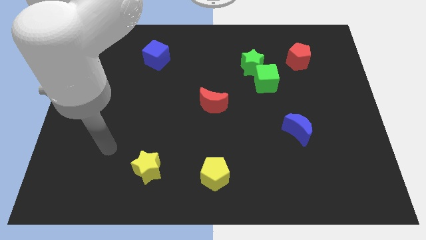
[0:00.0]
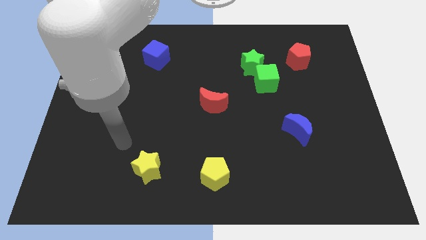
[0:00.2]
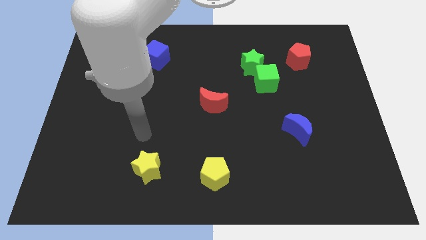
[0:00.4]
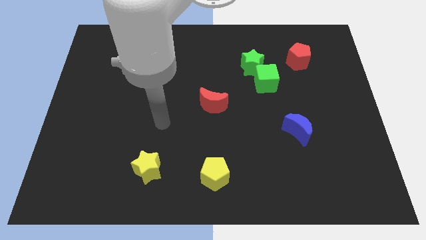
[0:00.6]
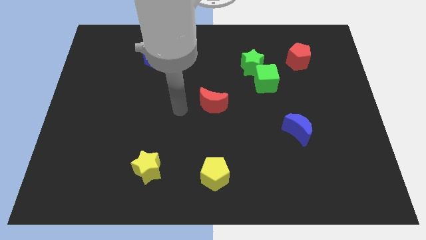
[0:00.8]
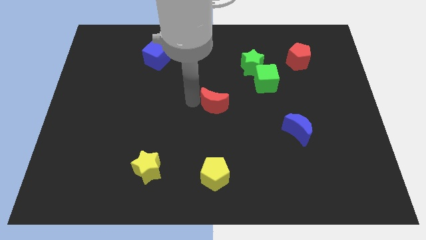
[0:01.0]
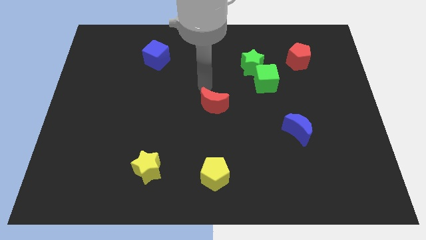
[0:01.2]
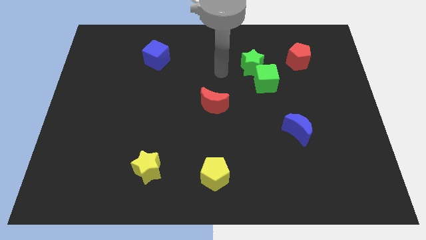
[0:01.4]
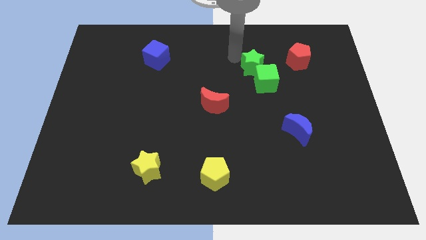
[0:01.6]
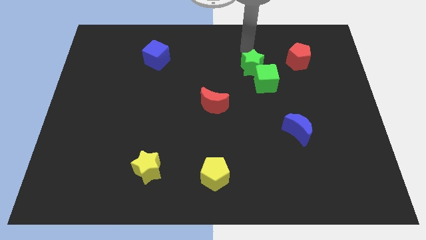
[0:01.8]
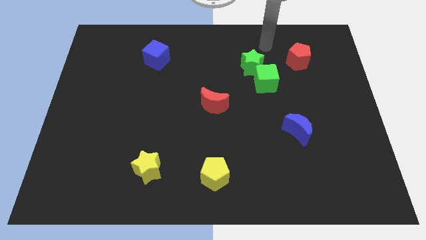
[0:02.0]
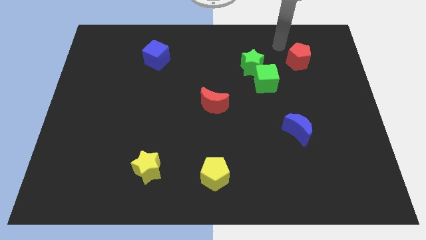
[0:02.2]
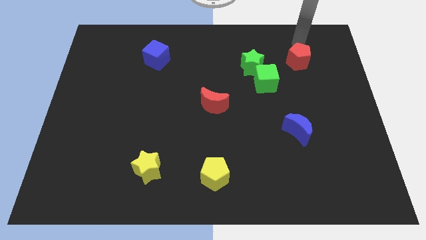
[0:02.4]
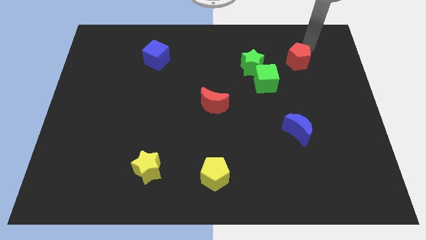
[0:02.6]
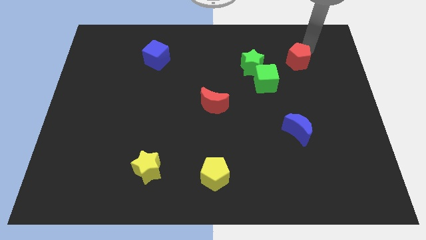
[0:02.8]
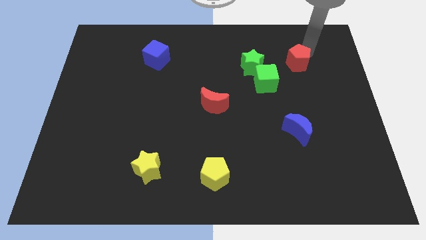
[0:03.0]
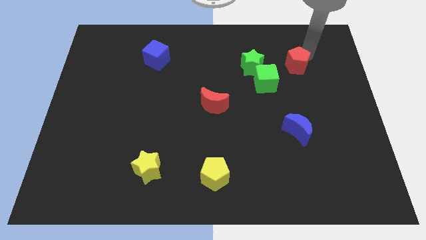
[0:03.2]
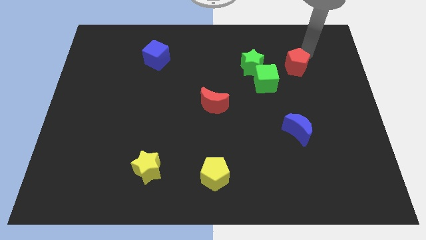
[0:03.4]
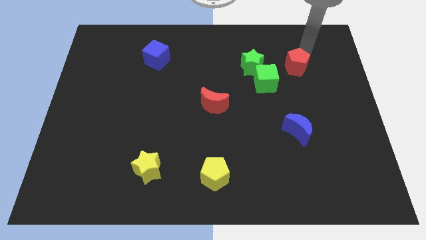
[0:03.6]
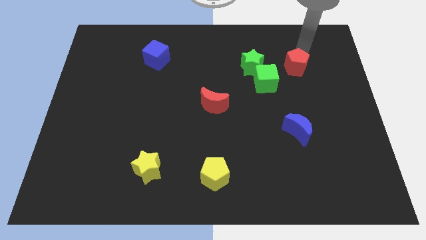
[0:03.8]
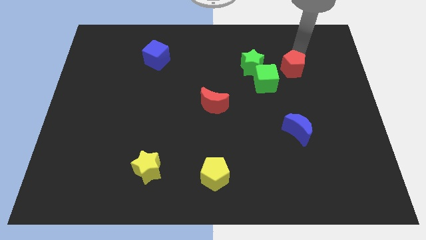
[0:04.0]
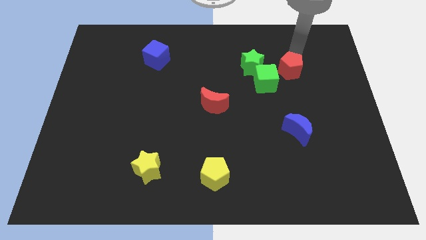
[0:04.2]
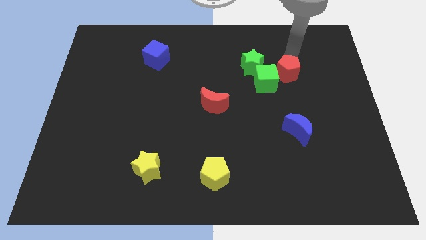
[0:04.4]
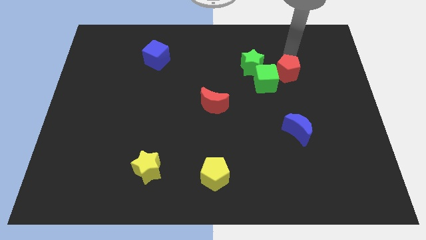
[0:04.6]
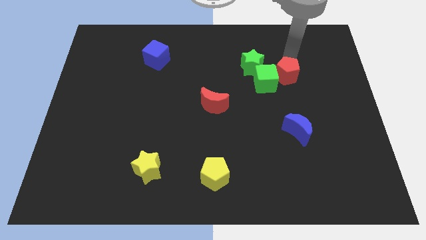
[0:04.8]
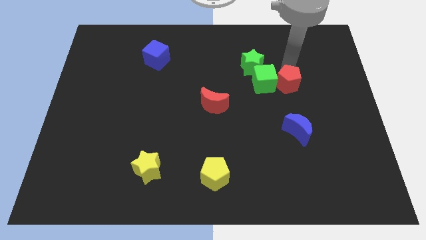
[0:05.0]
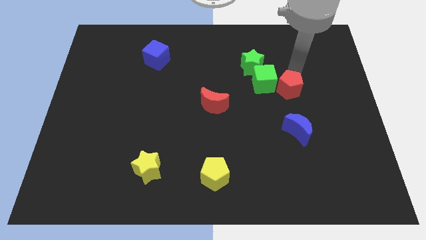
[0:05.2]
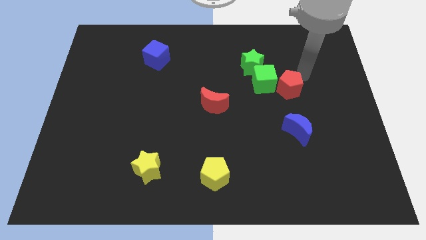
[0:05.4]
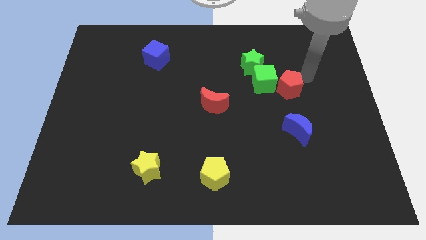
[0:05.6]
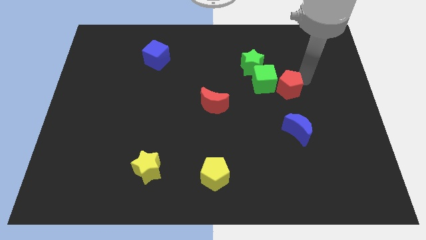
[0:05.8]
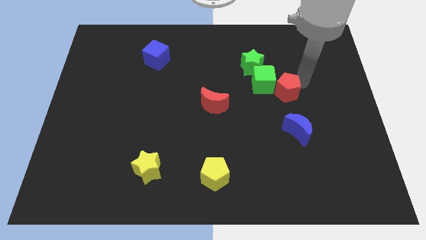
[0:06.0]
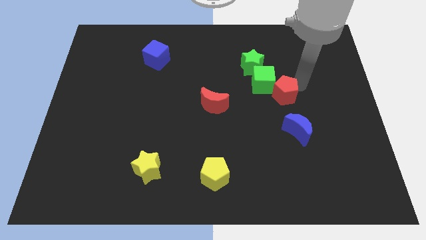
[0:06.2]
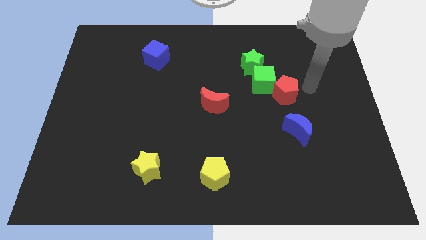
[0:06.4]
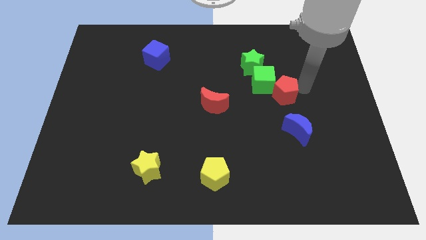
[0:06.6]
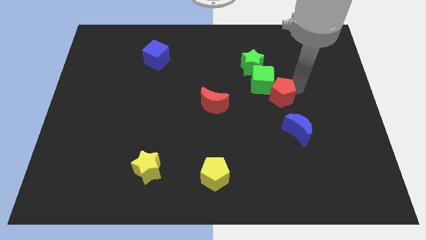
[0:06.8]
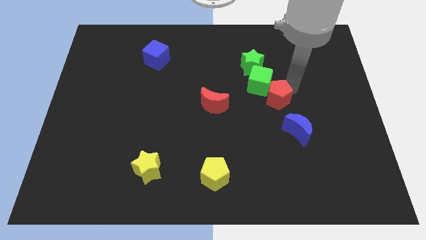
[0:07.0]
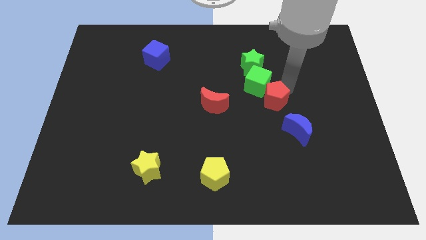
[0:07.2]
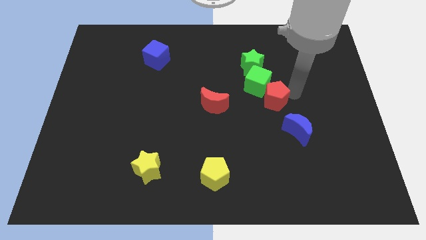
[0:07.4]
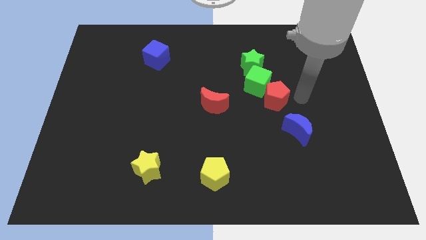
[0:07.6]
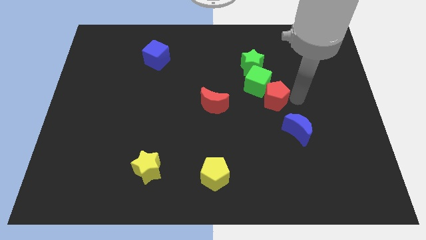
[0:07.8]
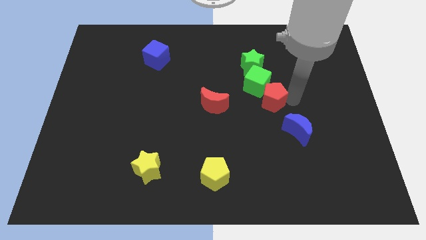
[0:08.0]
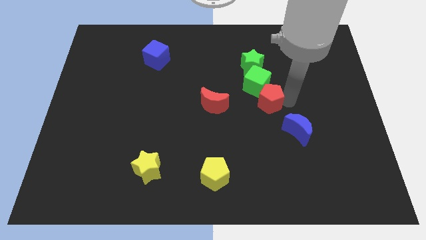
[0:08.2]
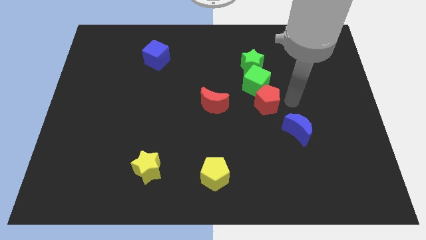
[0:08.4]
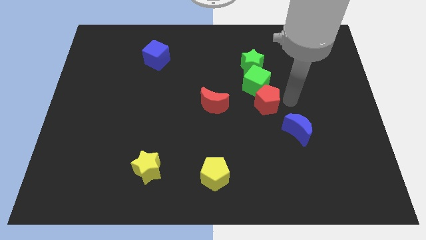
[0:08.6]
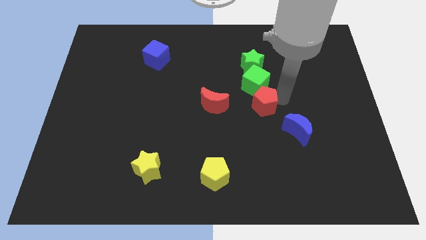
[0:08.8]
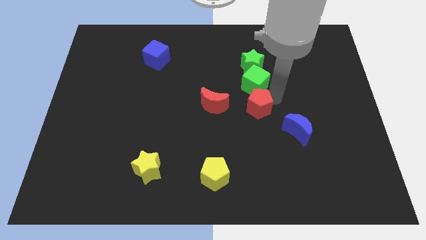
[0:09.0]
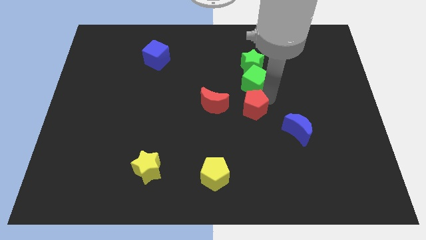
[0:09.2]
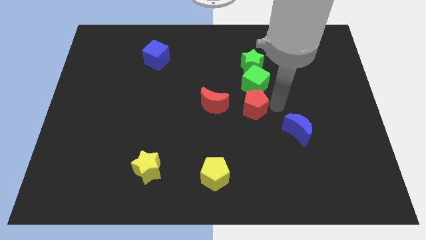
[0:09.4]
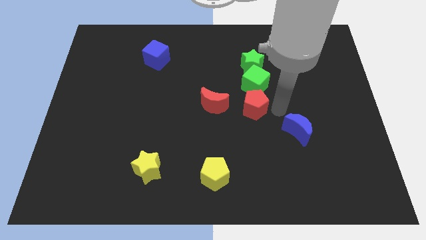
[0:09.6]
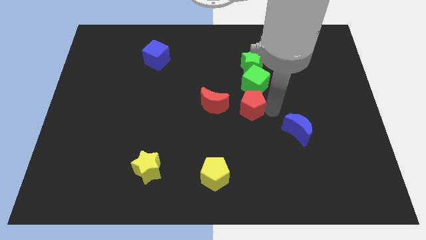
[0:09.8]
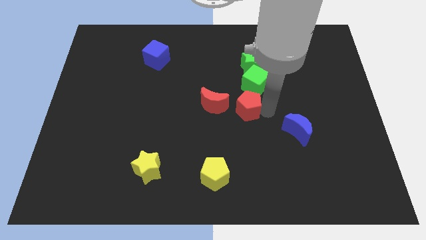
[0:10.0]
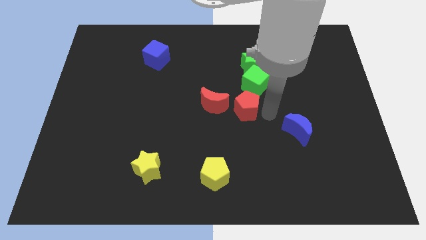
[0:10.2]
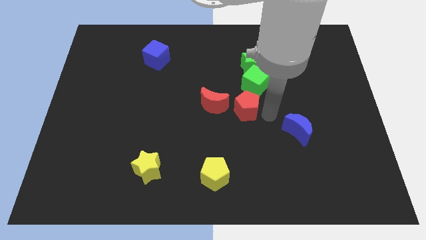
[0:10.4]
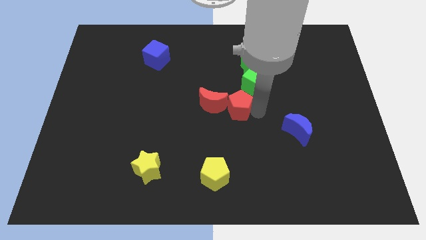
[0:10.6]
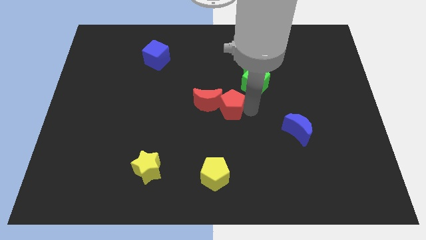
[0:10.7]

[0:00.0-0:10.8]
push the red pentagon towards the red moon

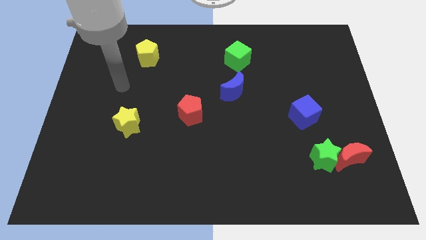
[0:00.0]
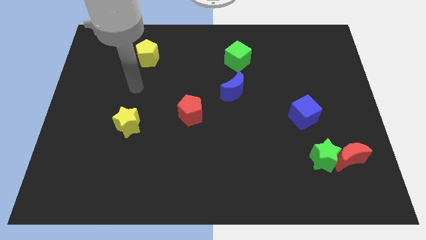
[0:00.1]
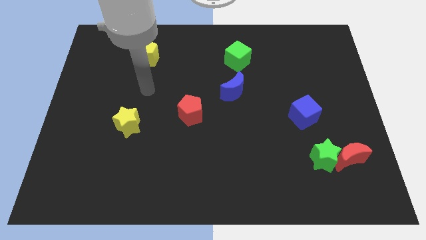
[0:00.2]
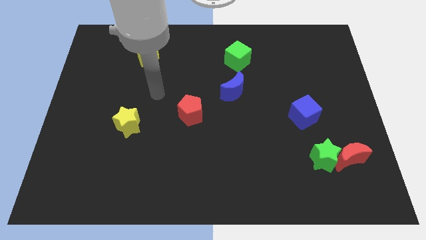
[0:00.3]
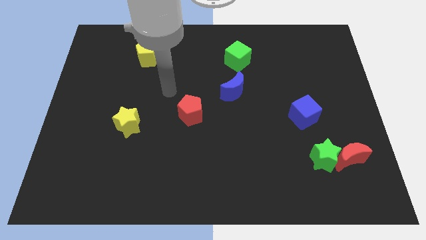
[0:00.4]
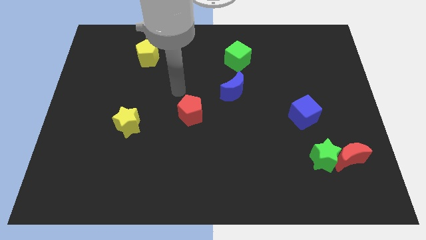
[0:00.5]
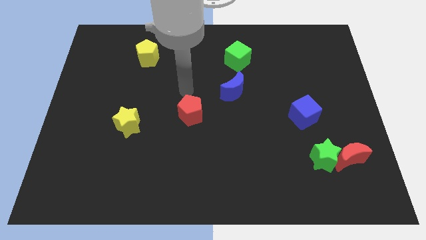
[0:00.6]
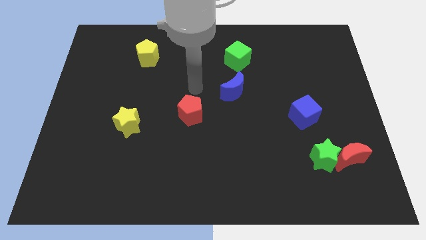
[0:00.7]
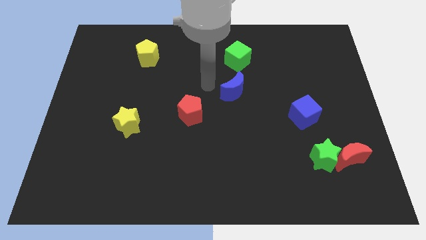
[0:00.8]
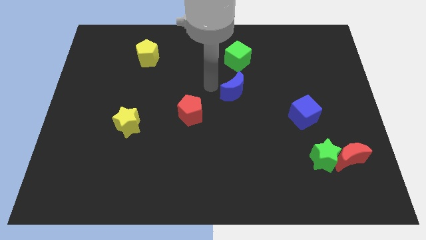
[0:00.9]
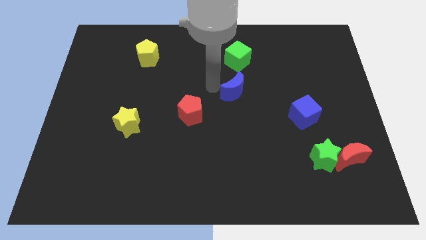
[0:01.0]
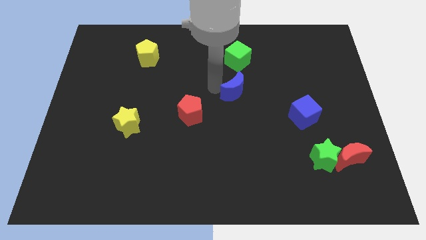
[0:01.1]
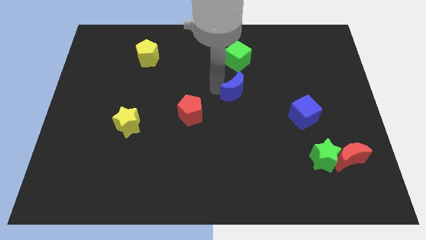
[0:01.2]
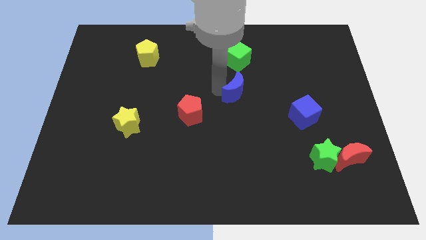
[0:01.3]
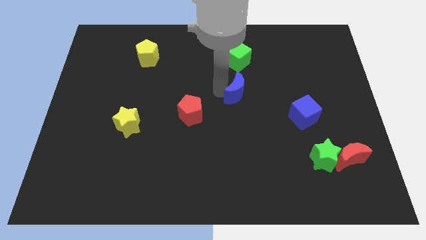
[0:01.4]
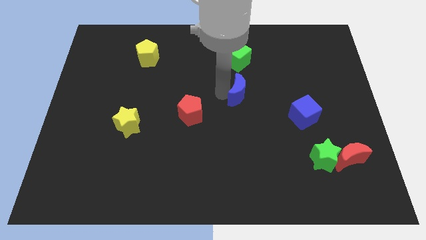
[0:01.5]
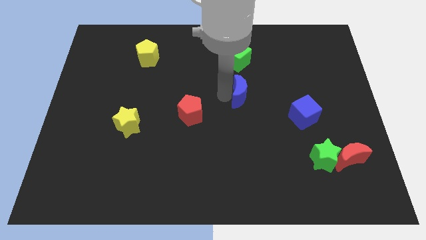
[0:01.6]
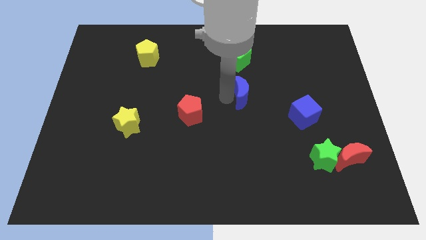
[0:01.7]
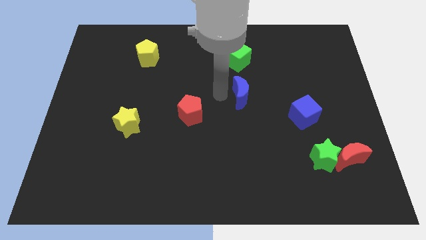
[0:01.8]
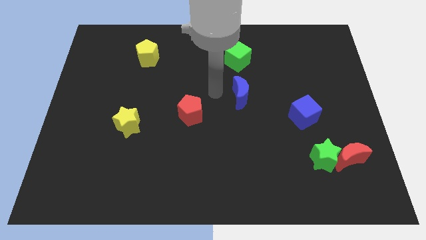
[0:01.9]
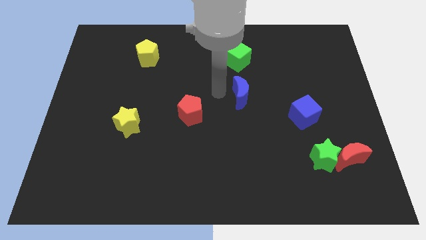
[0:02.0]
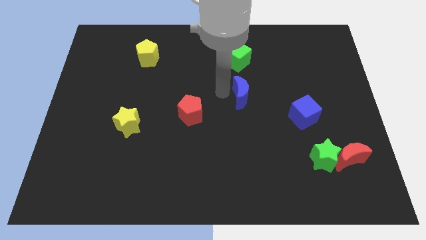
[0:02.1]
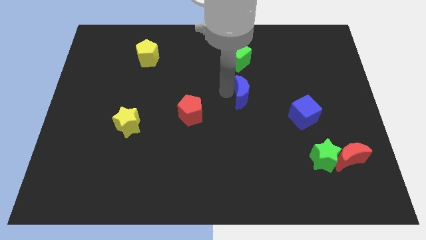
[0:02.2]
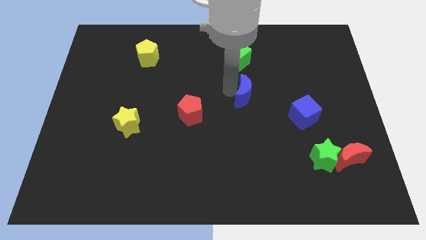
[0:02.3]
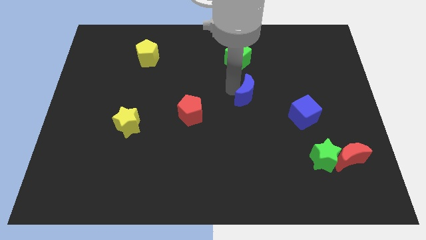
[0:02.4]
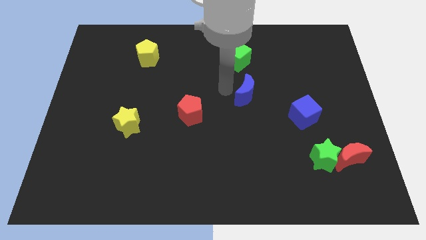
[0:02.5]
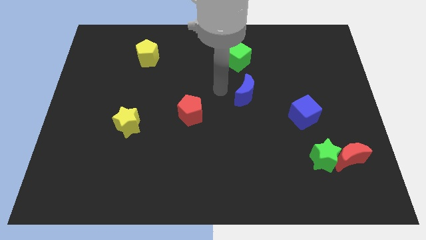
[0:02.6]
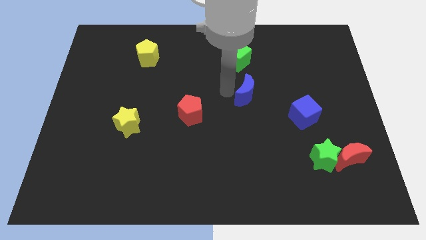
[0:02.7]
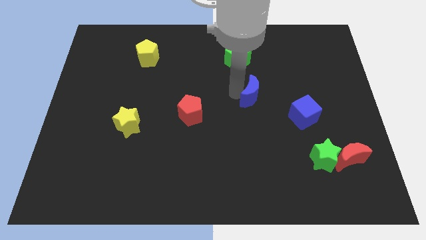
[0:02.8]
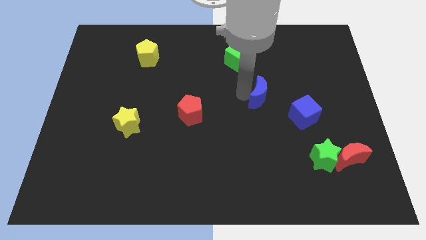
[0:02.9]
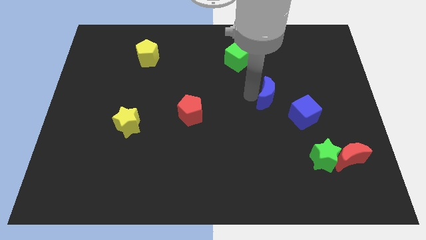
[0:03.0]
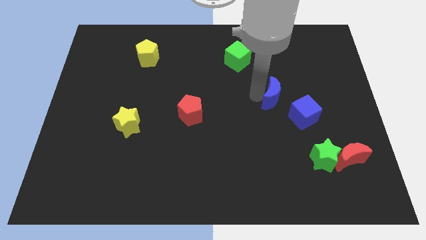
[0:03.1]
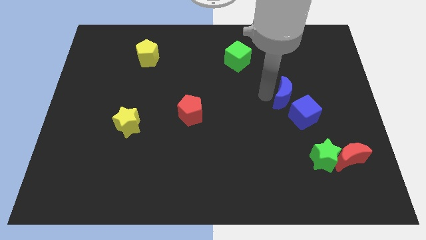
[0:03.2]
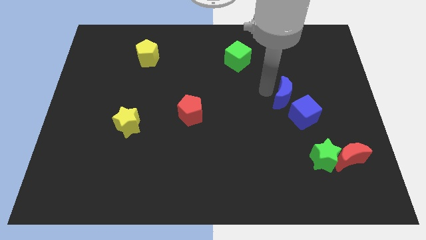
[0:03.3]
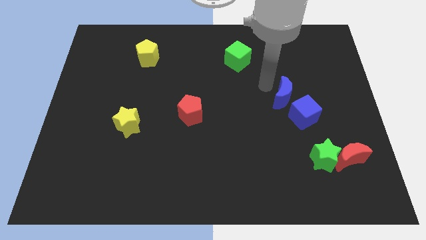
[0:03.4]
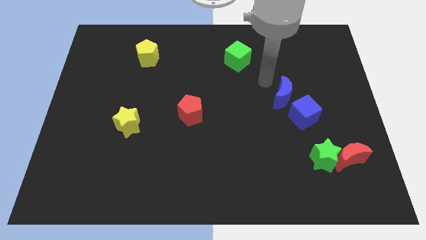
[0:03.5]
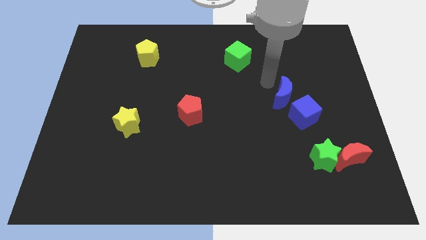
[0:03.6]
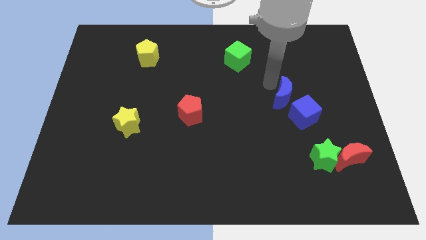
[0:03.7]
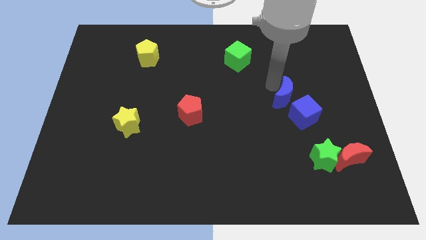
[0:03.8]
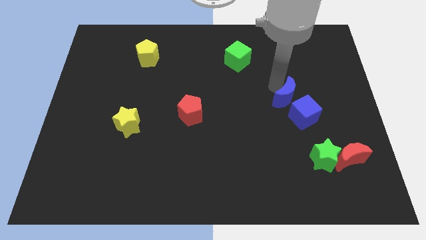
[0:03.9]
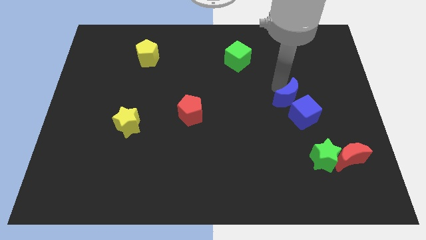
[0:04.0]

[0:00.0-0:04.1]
move the blue moon to the blue cube
